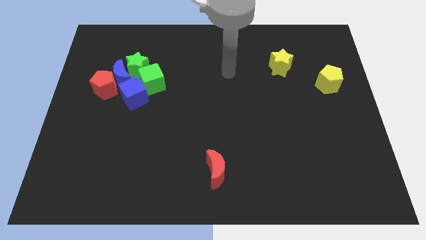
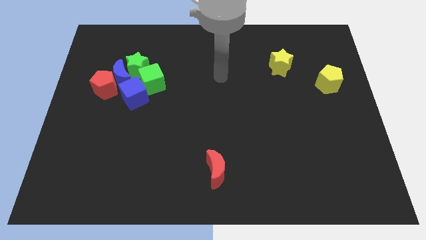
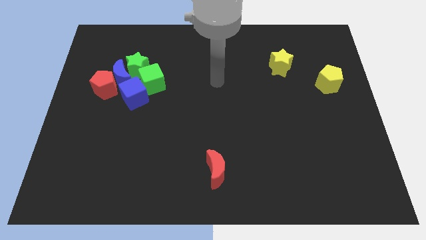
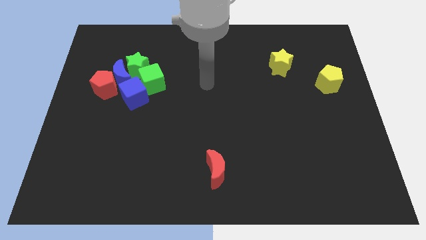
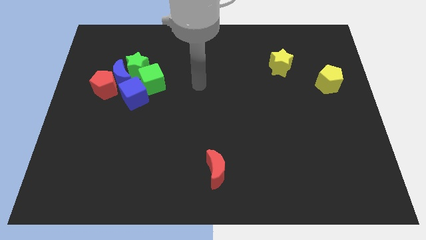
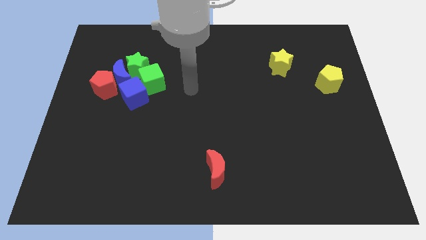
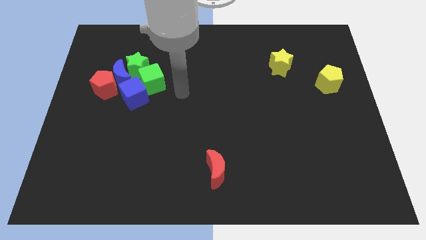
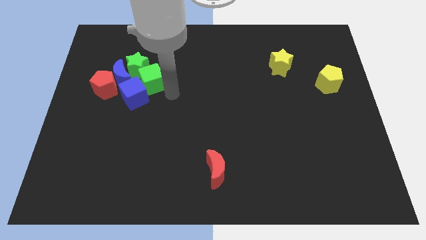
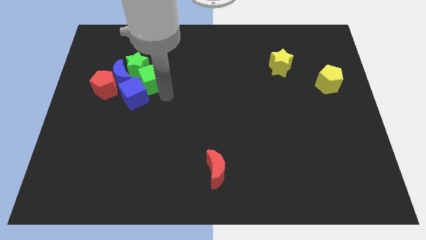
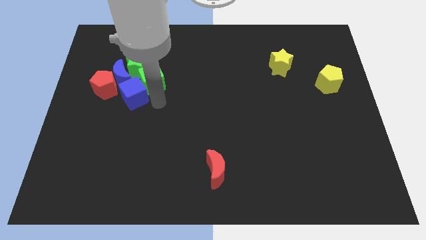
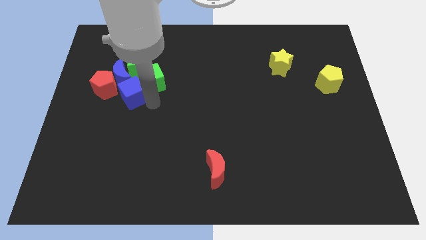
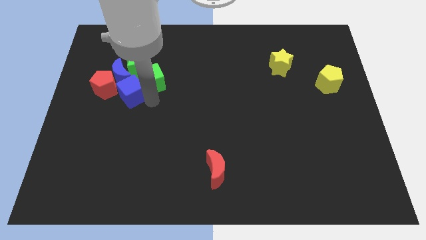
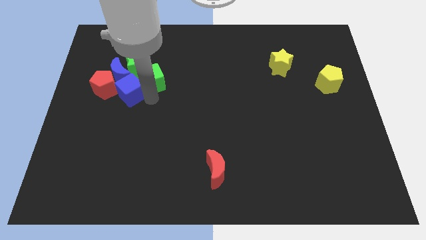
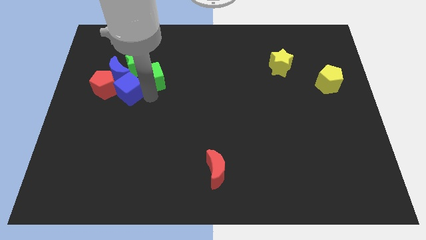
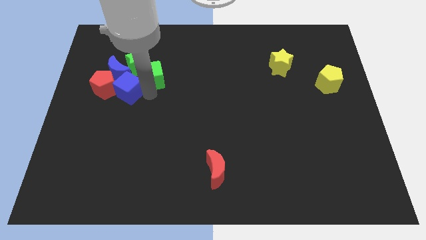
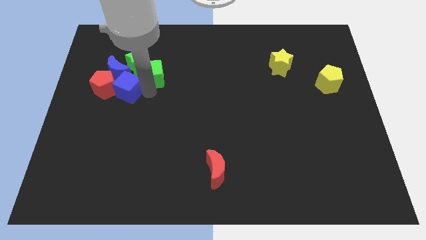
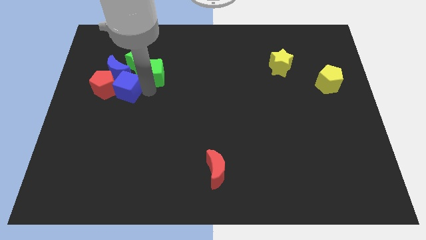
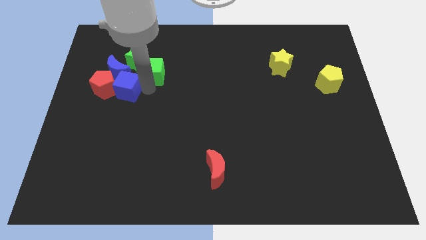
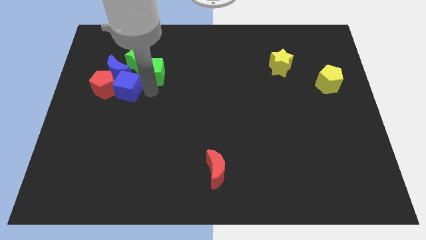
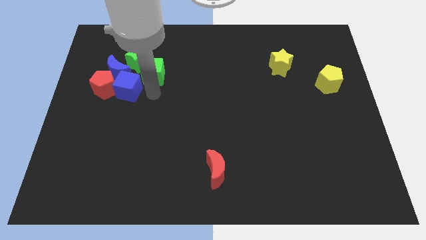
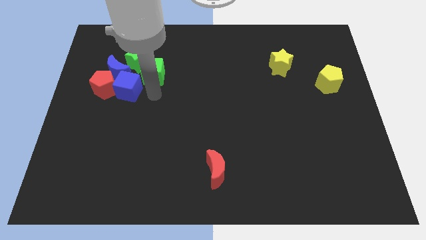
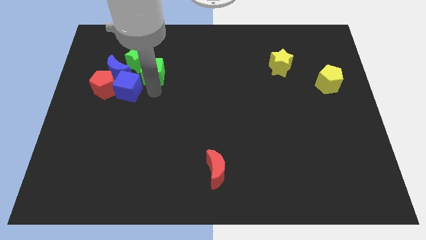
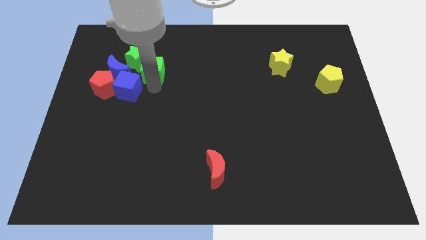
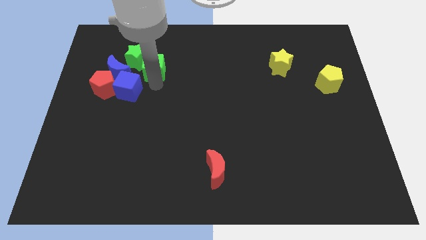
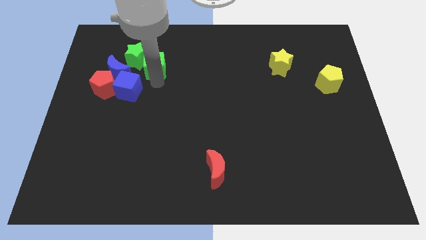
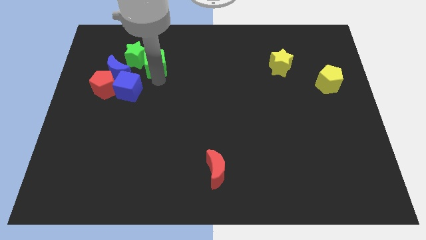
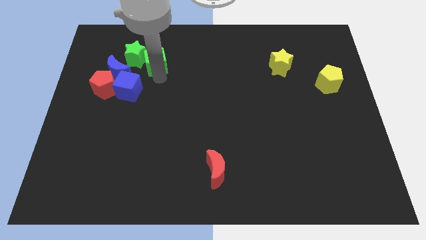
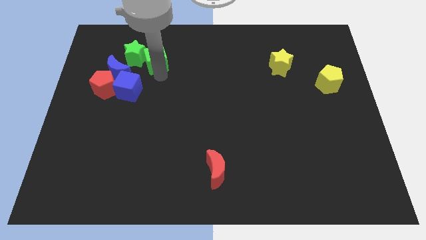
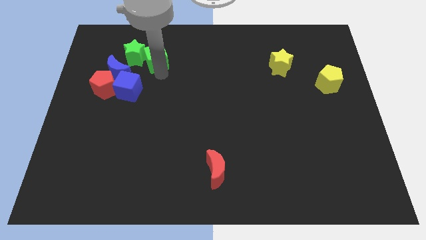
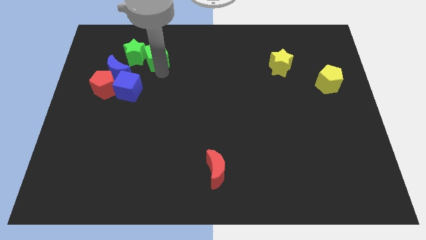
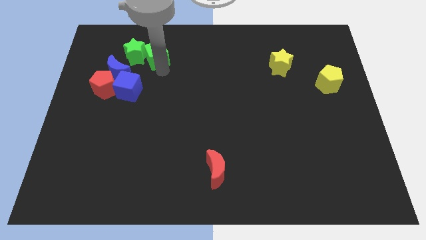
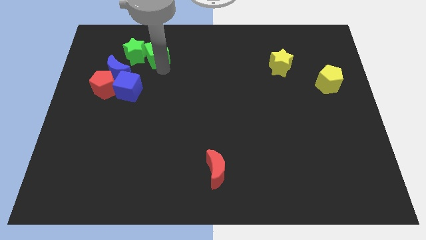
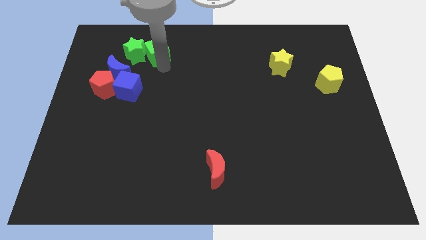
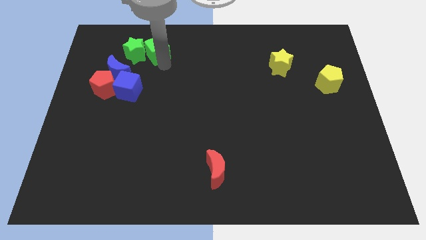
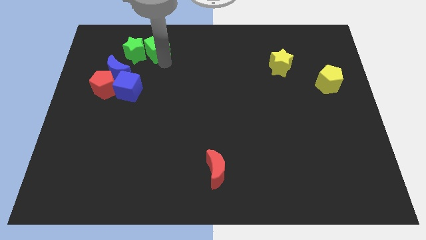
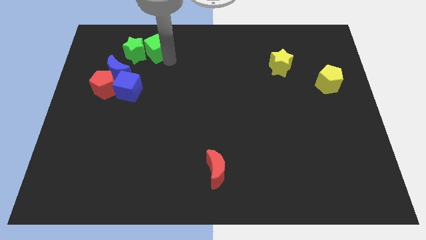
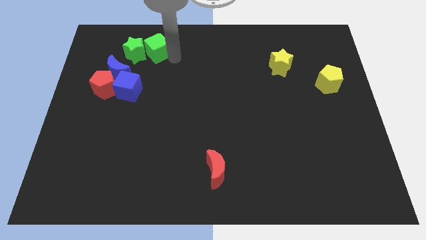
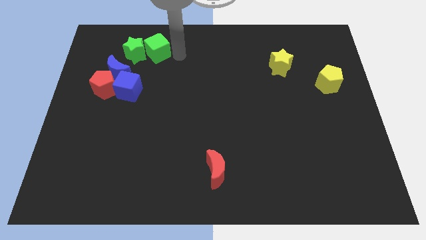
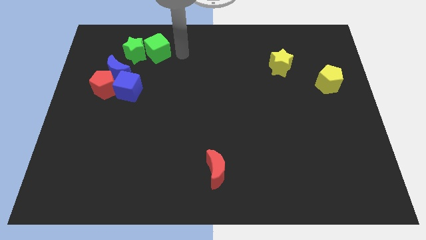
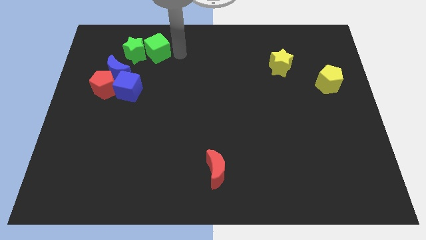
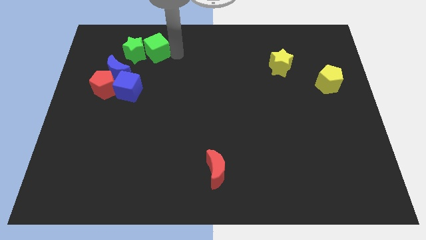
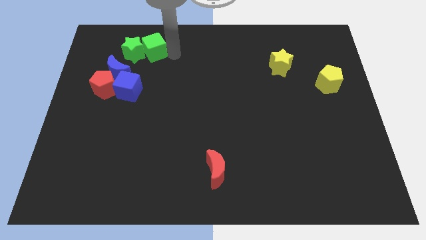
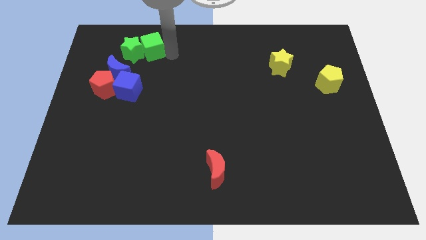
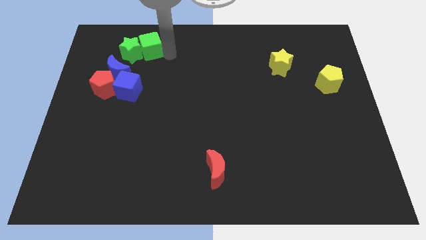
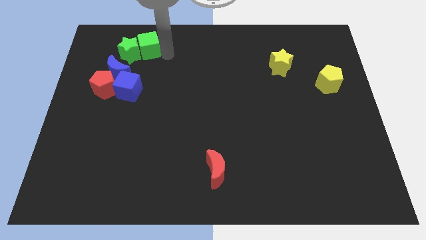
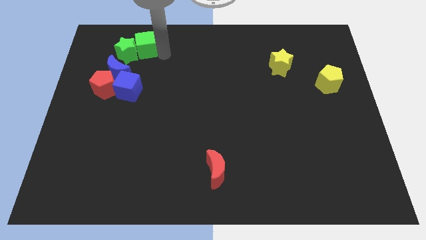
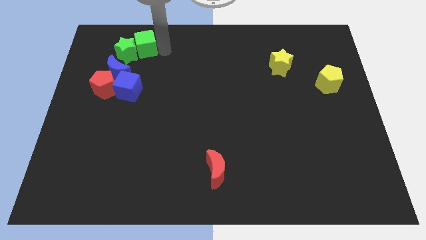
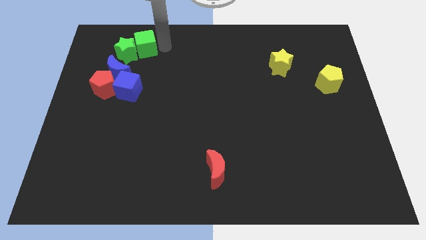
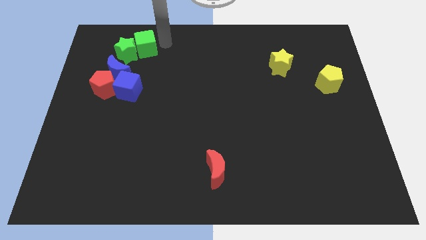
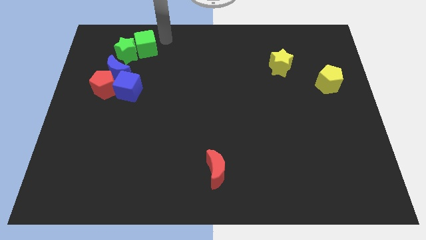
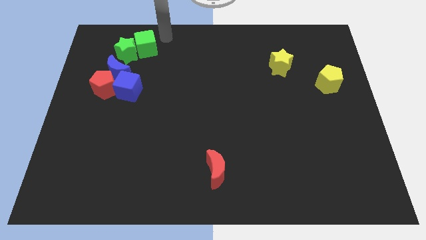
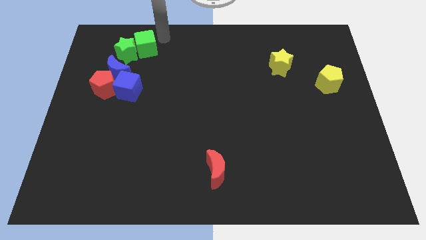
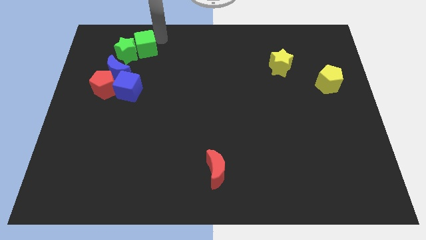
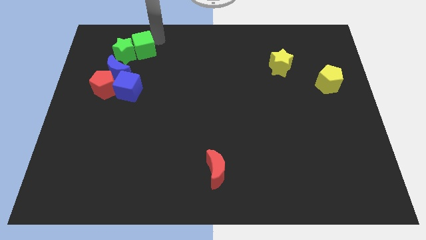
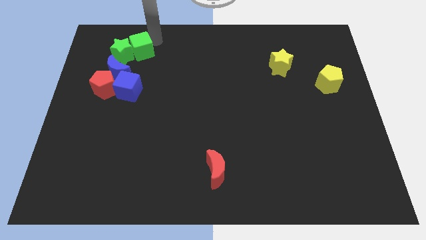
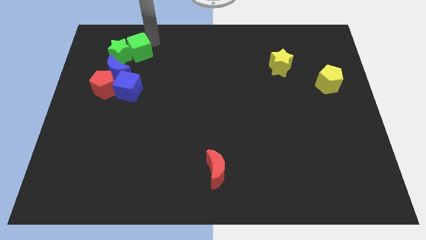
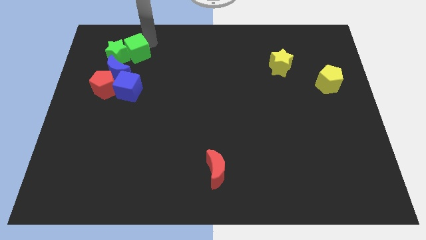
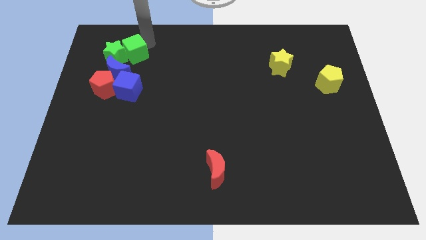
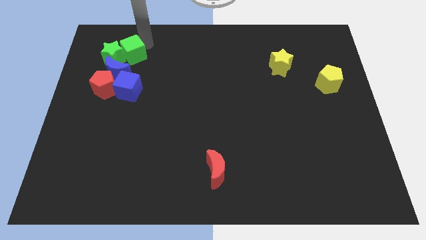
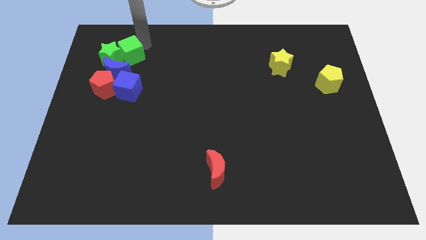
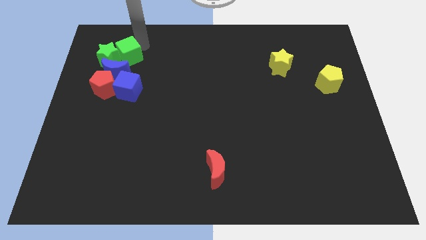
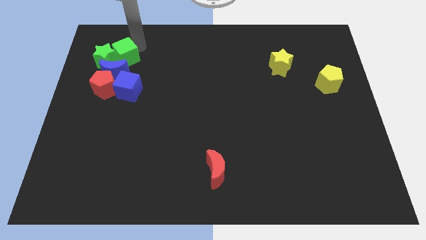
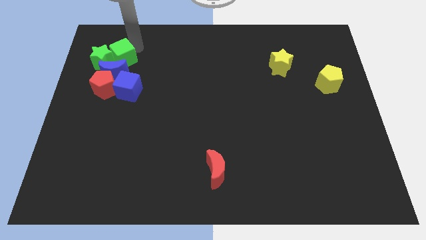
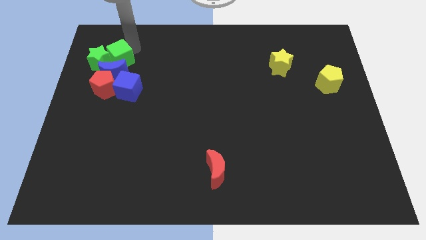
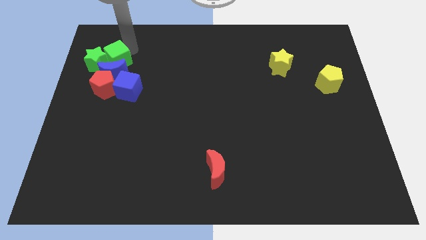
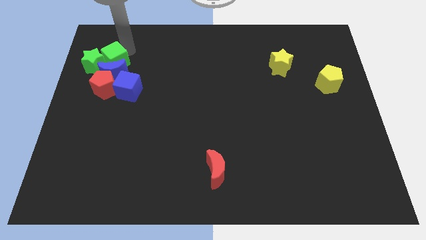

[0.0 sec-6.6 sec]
put the green cube to the top left of the blue cube
